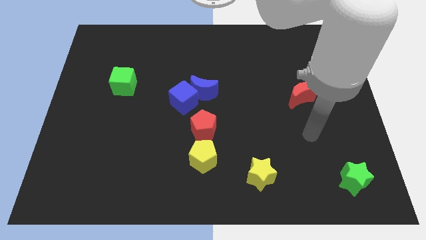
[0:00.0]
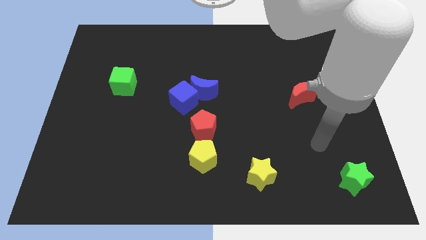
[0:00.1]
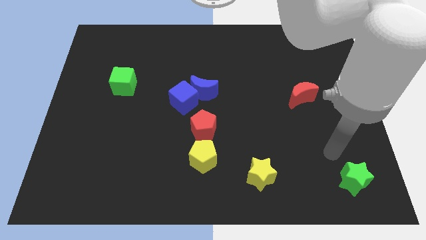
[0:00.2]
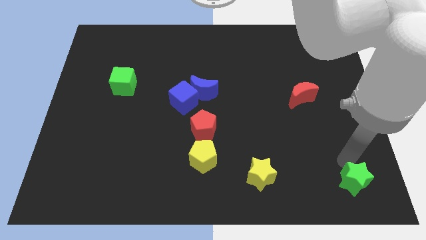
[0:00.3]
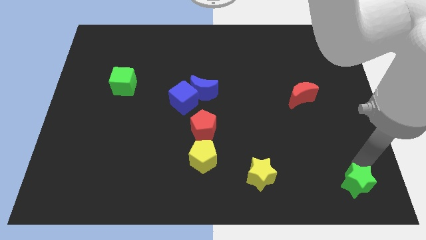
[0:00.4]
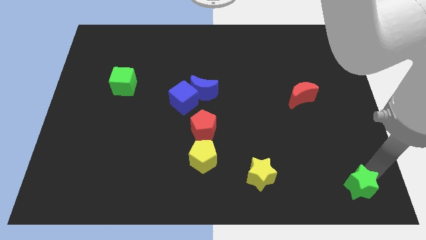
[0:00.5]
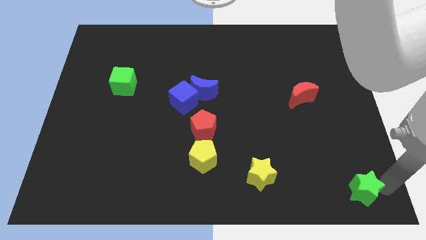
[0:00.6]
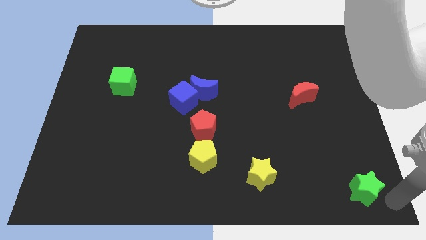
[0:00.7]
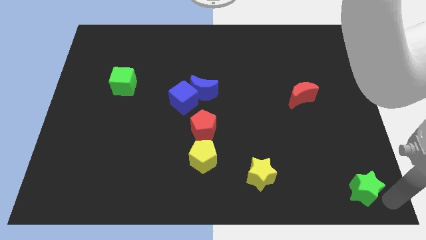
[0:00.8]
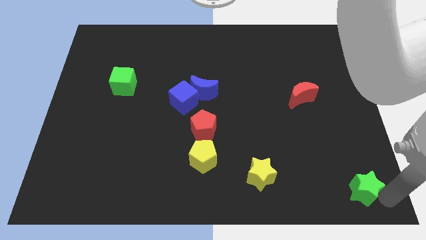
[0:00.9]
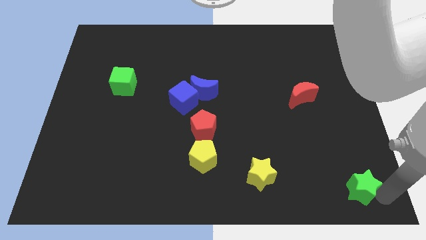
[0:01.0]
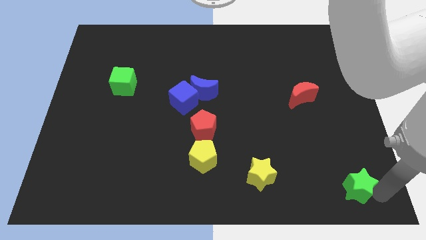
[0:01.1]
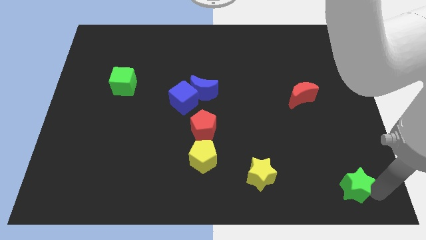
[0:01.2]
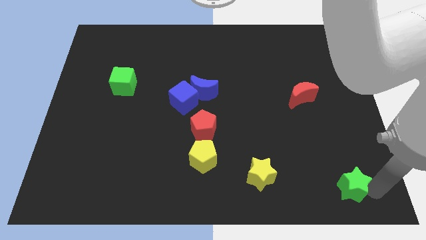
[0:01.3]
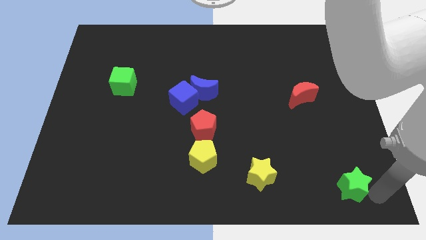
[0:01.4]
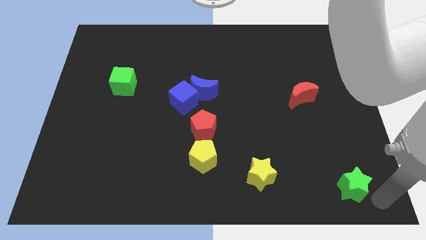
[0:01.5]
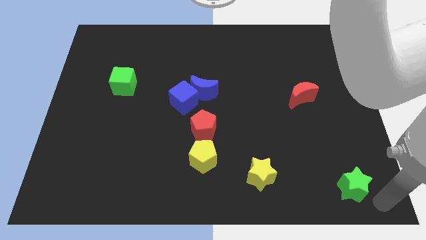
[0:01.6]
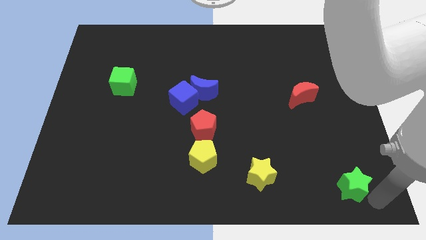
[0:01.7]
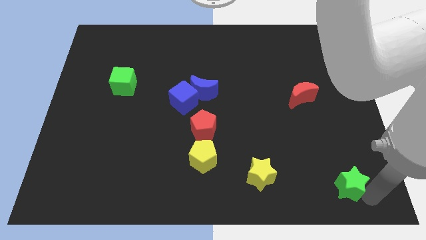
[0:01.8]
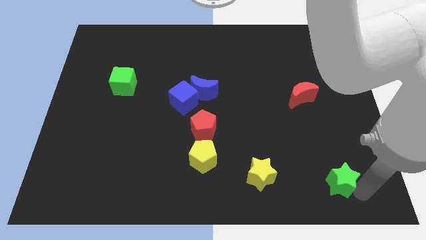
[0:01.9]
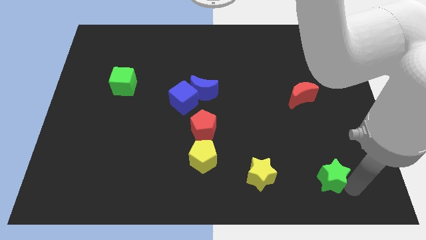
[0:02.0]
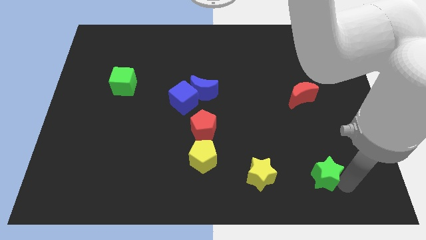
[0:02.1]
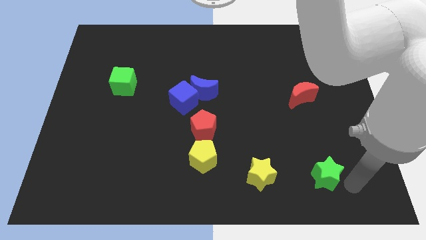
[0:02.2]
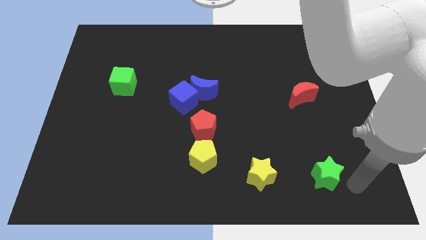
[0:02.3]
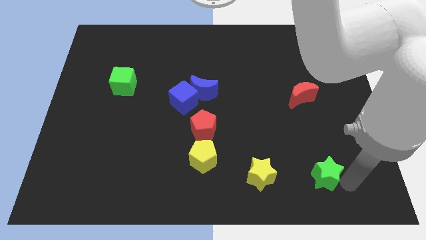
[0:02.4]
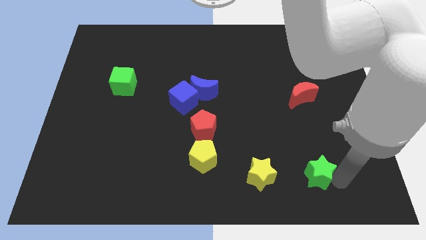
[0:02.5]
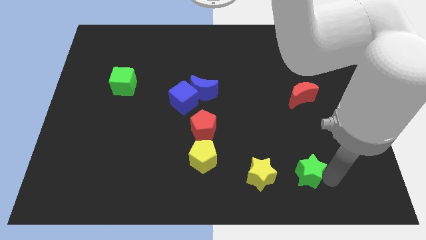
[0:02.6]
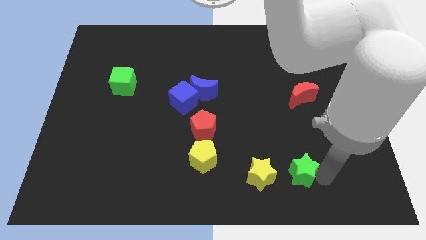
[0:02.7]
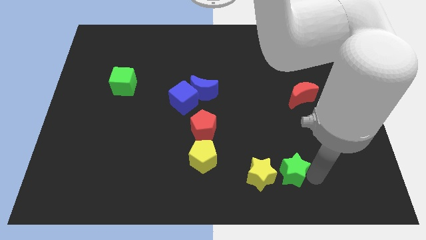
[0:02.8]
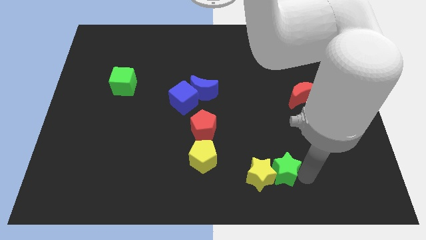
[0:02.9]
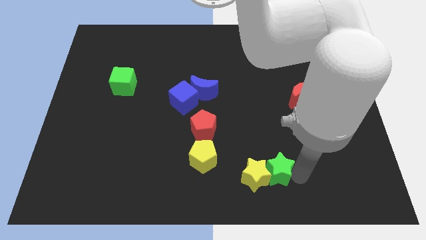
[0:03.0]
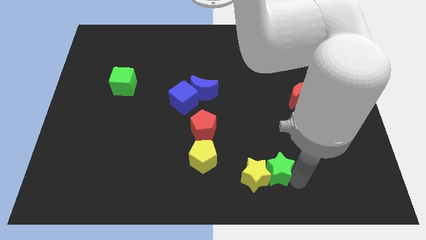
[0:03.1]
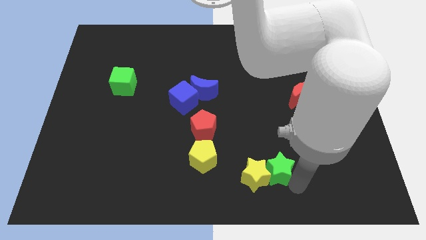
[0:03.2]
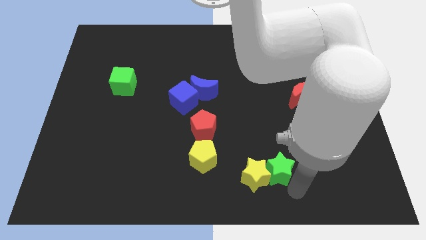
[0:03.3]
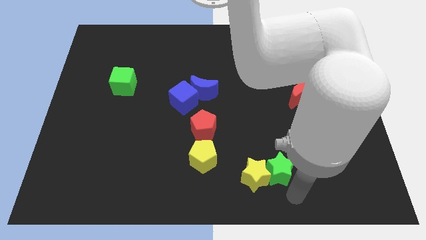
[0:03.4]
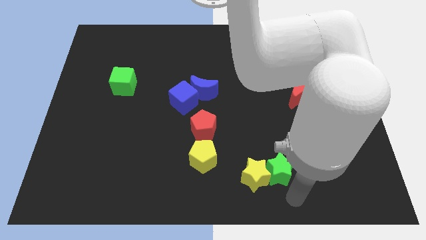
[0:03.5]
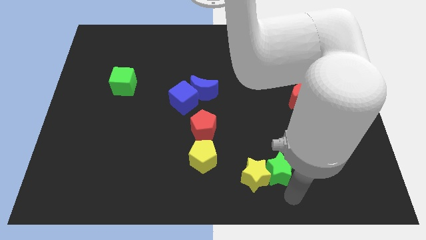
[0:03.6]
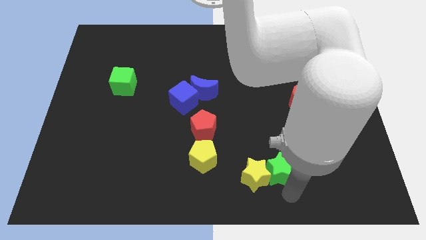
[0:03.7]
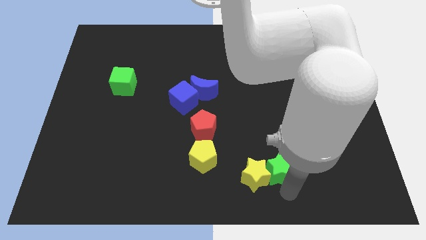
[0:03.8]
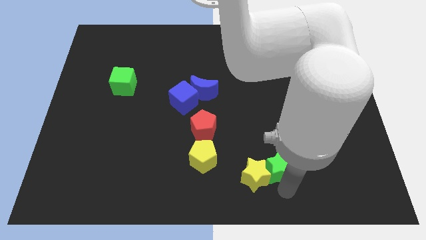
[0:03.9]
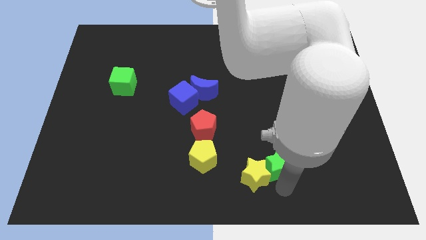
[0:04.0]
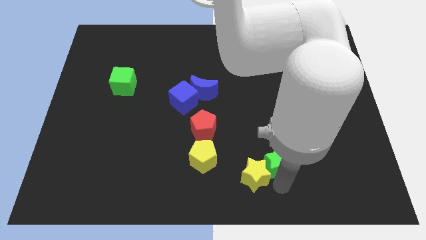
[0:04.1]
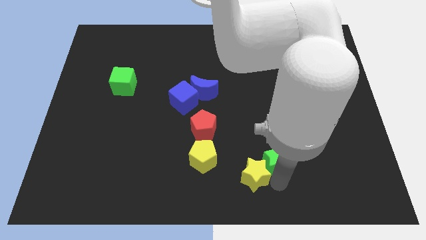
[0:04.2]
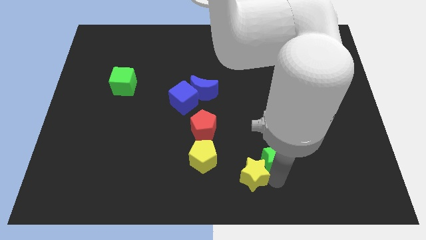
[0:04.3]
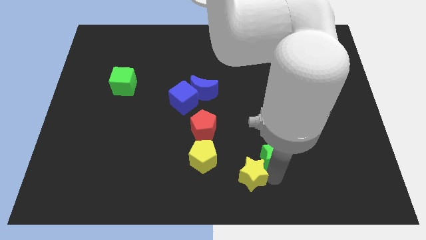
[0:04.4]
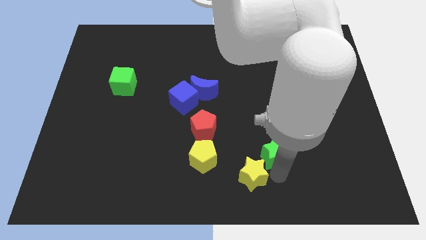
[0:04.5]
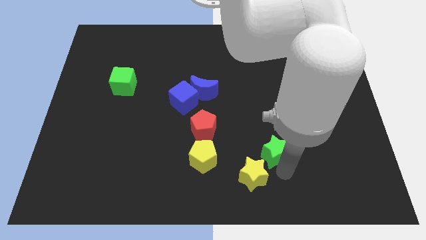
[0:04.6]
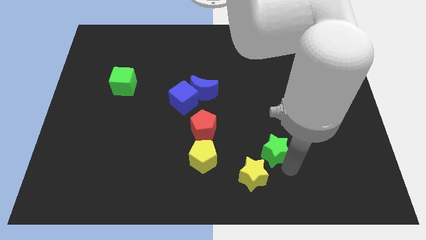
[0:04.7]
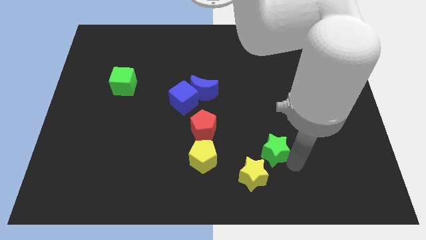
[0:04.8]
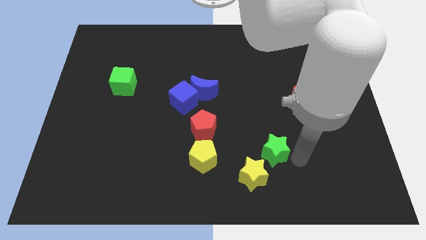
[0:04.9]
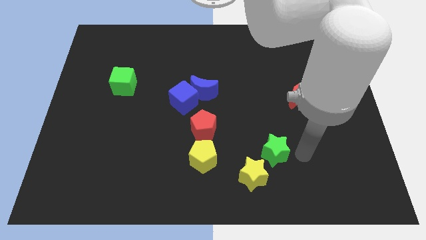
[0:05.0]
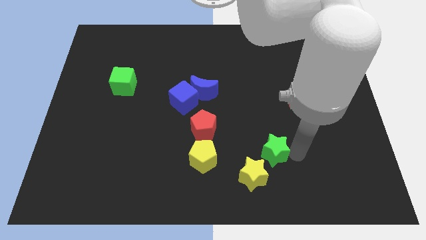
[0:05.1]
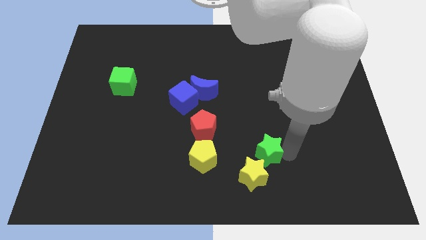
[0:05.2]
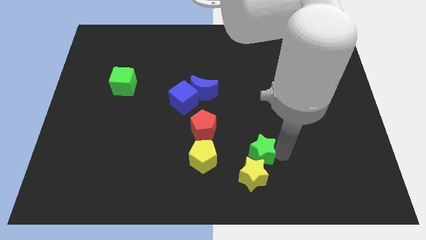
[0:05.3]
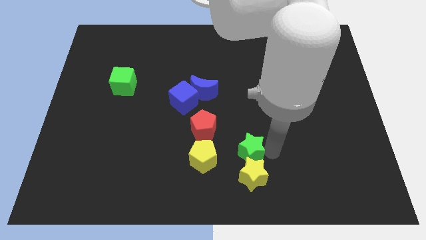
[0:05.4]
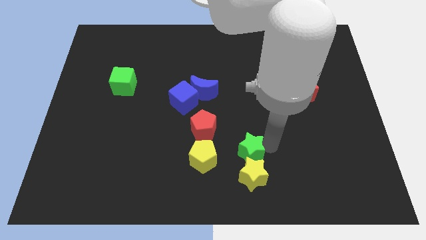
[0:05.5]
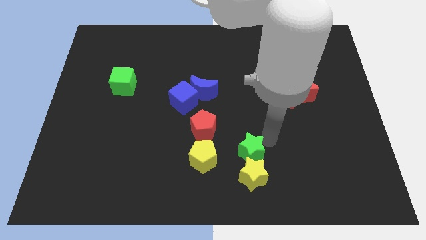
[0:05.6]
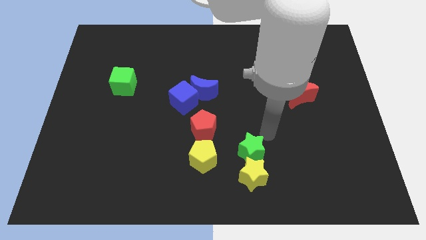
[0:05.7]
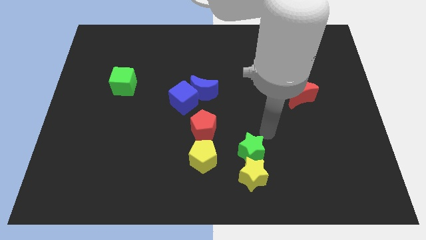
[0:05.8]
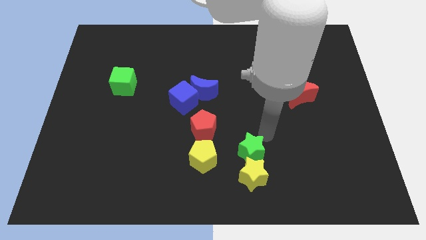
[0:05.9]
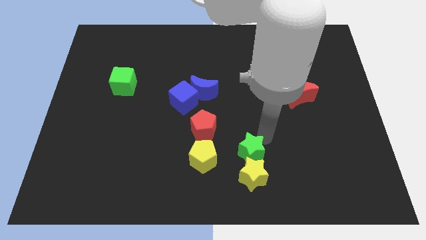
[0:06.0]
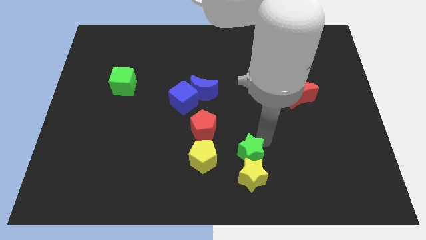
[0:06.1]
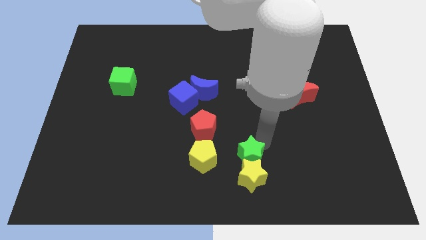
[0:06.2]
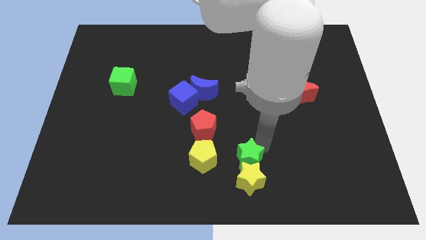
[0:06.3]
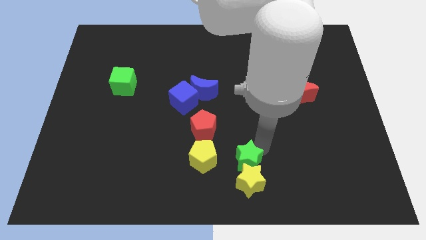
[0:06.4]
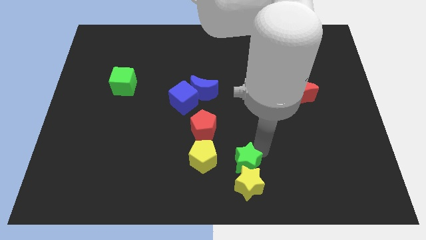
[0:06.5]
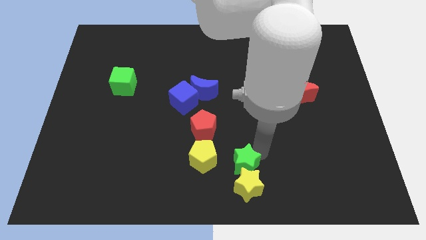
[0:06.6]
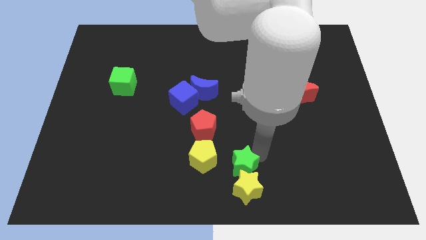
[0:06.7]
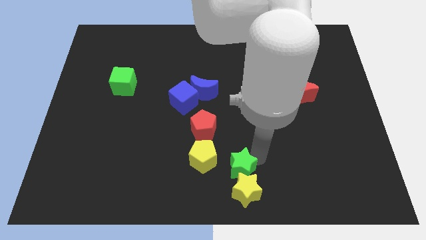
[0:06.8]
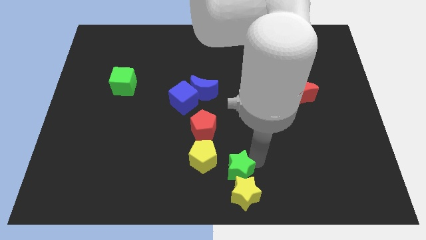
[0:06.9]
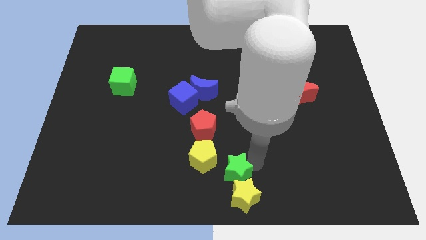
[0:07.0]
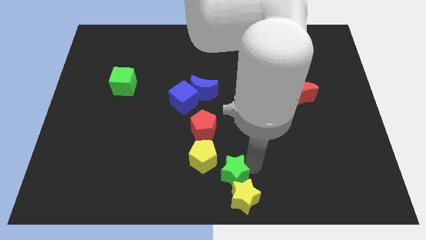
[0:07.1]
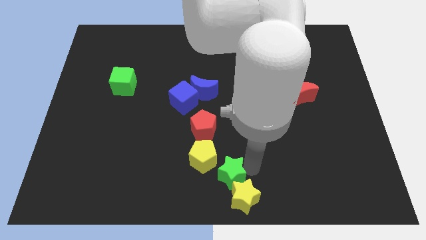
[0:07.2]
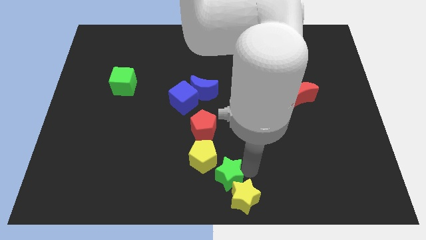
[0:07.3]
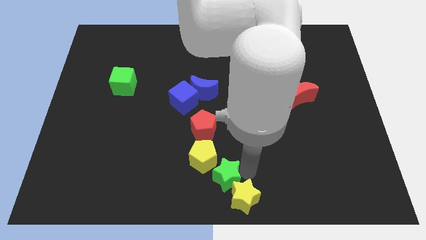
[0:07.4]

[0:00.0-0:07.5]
push the green star to the left of the yellow star
